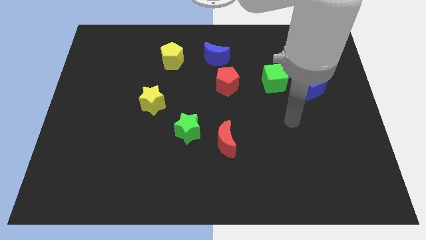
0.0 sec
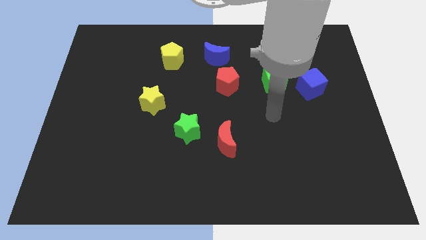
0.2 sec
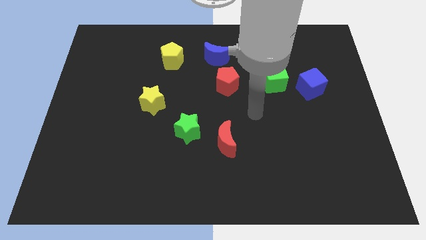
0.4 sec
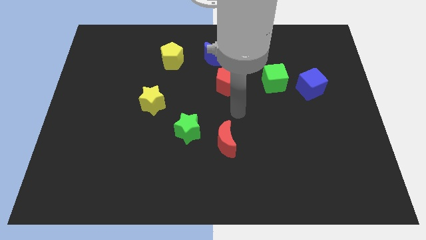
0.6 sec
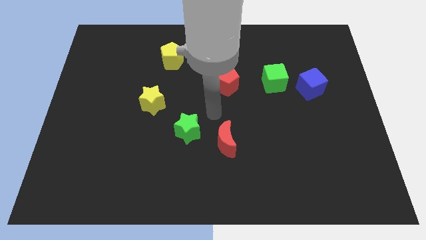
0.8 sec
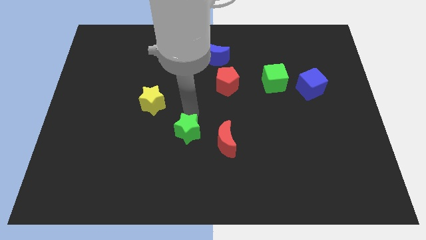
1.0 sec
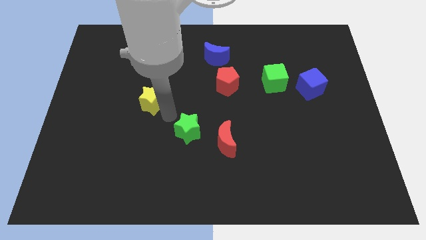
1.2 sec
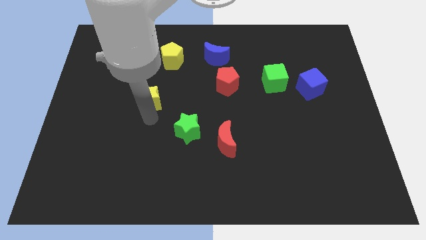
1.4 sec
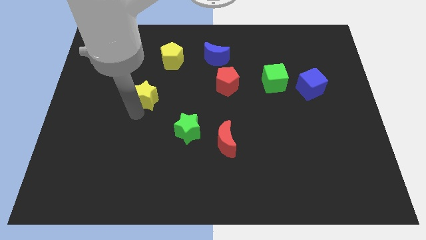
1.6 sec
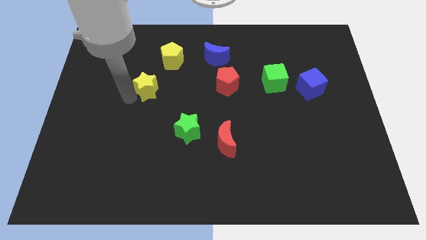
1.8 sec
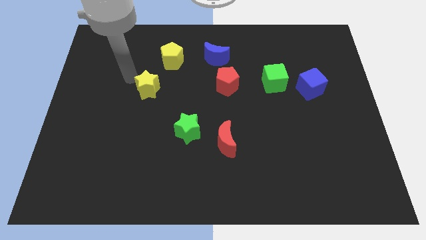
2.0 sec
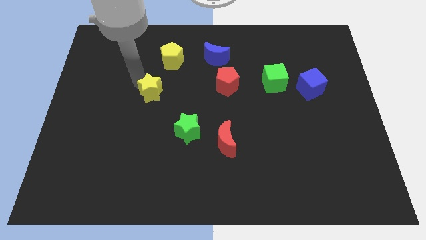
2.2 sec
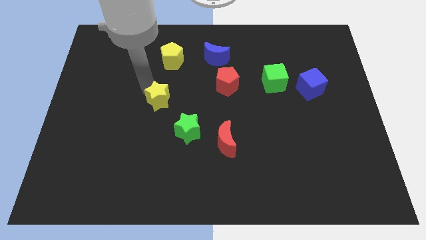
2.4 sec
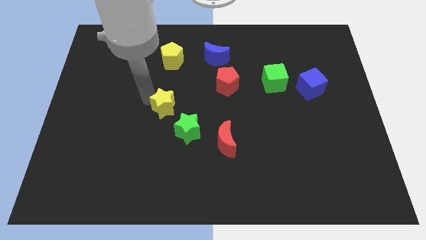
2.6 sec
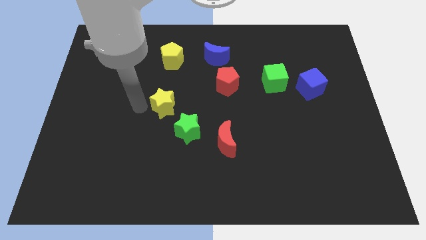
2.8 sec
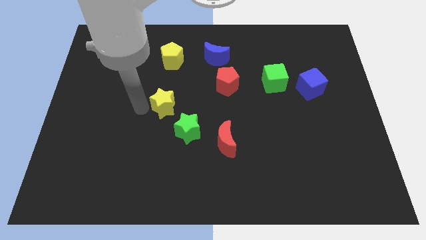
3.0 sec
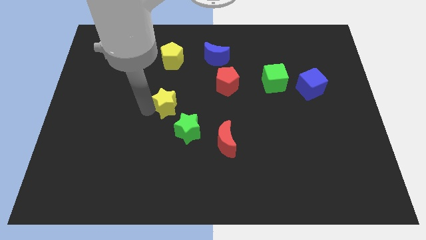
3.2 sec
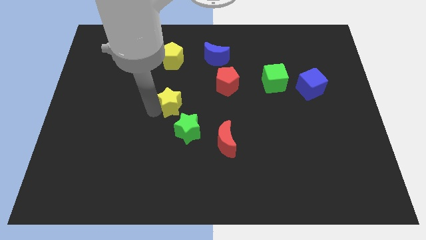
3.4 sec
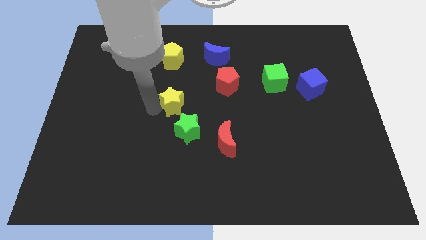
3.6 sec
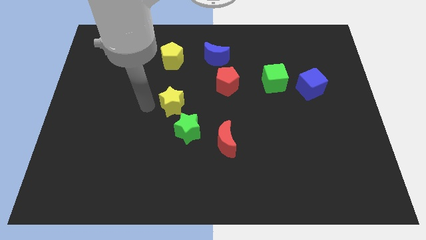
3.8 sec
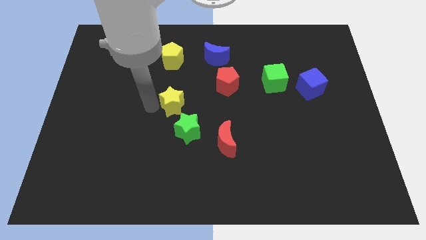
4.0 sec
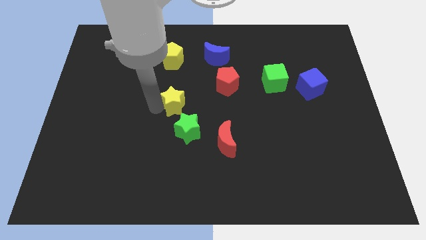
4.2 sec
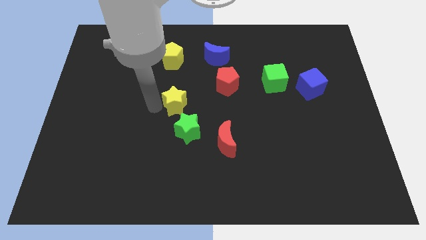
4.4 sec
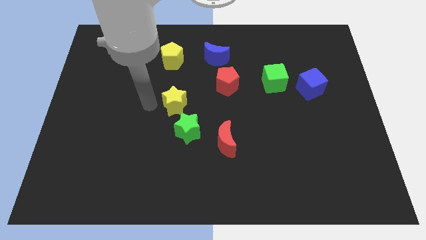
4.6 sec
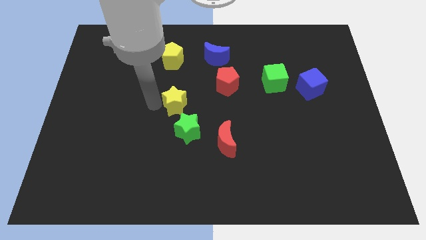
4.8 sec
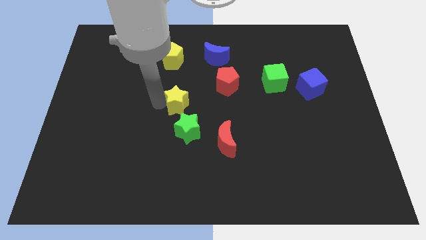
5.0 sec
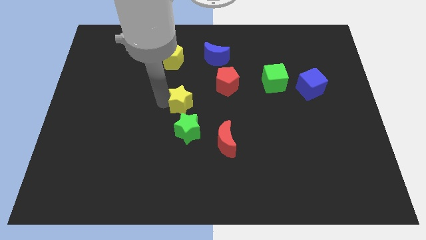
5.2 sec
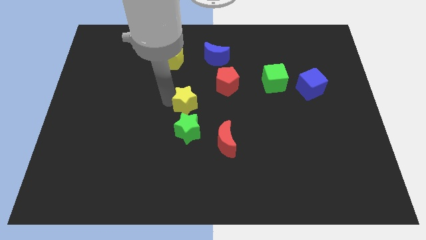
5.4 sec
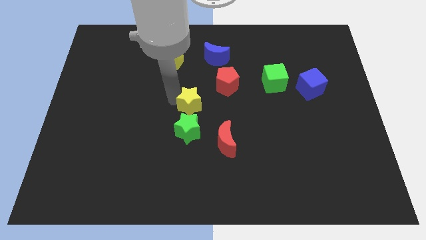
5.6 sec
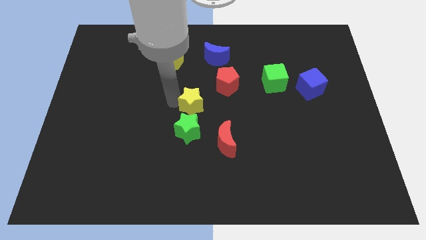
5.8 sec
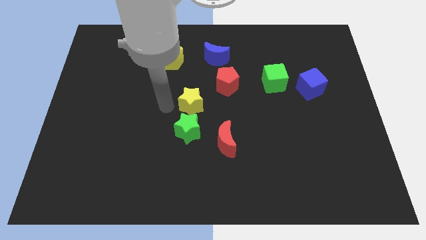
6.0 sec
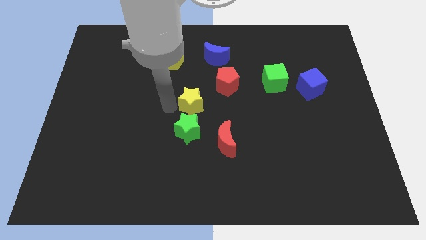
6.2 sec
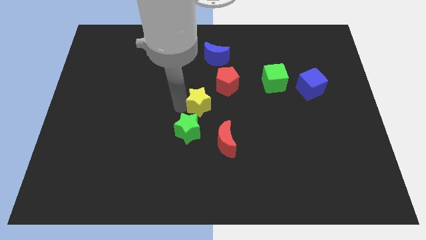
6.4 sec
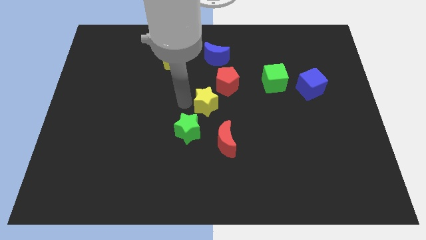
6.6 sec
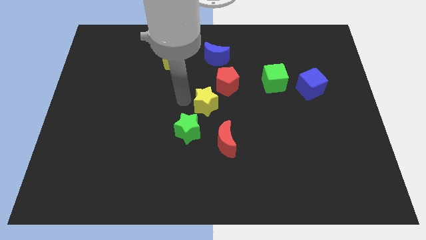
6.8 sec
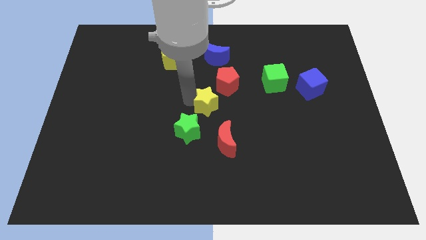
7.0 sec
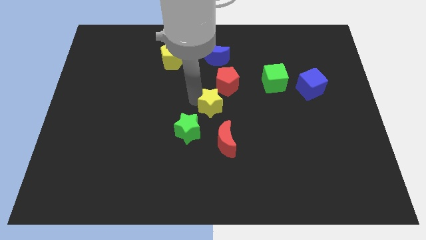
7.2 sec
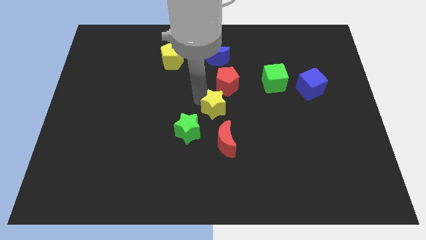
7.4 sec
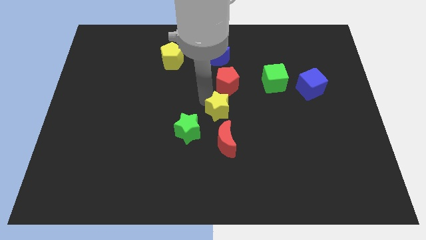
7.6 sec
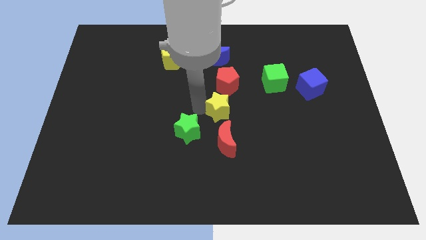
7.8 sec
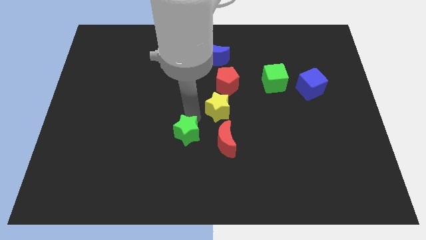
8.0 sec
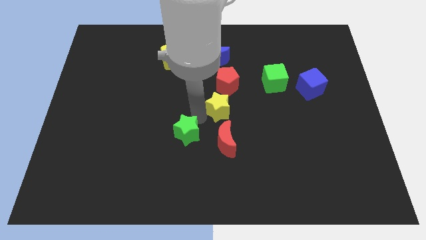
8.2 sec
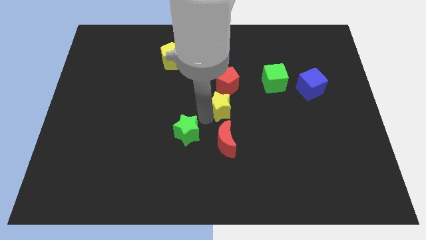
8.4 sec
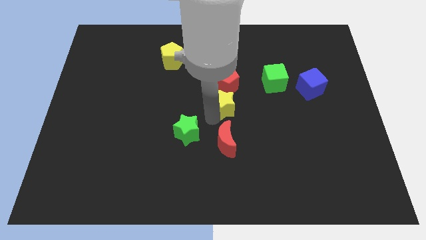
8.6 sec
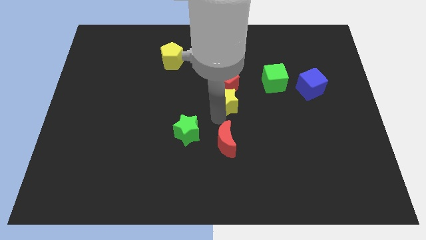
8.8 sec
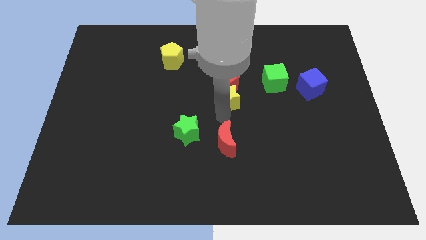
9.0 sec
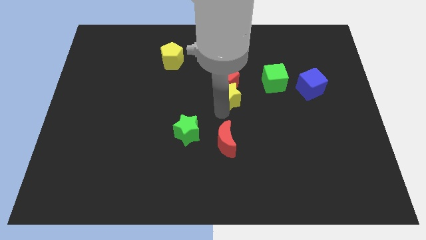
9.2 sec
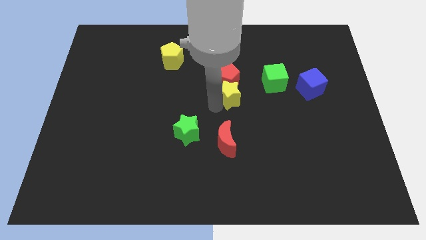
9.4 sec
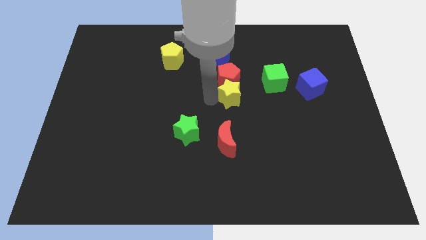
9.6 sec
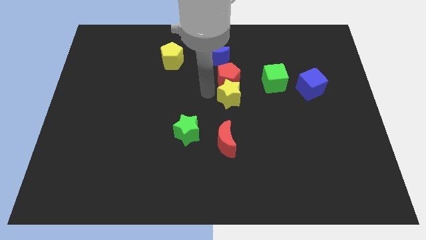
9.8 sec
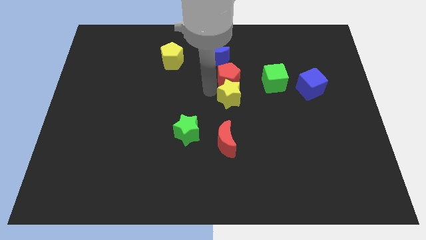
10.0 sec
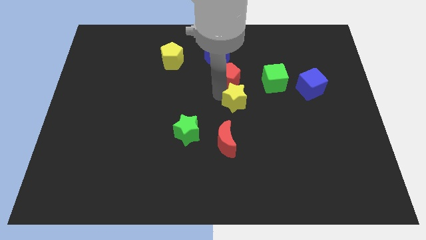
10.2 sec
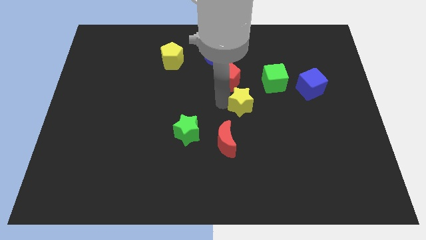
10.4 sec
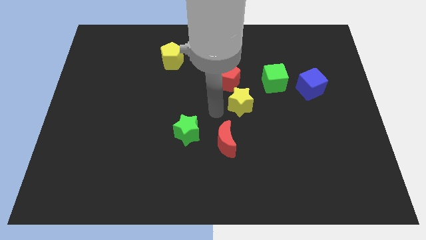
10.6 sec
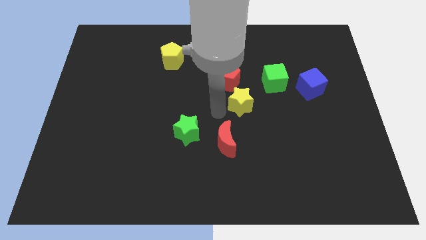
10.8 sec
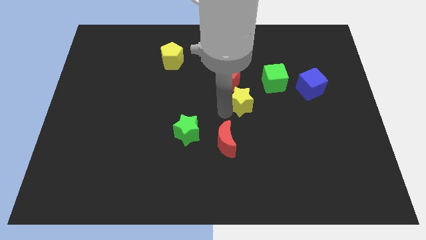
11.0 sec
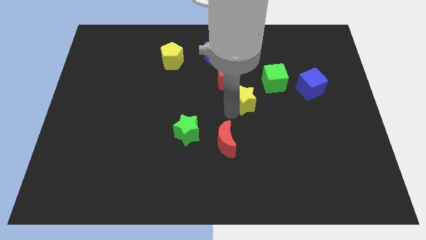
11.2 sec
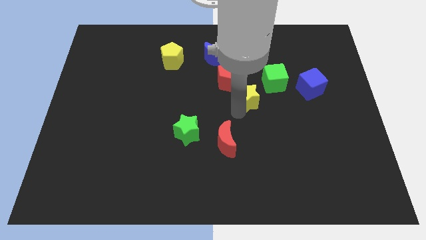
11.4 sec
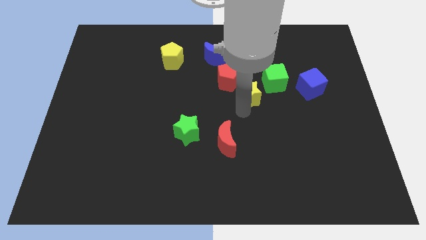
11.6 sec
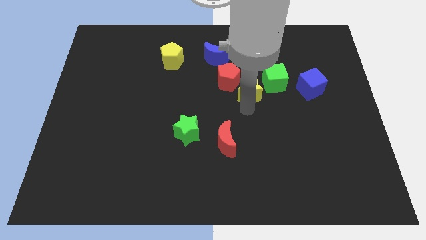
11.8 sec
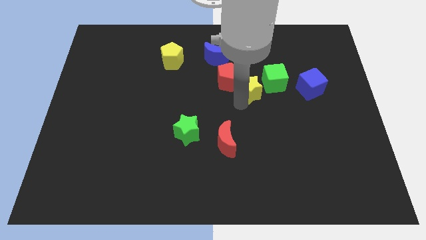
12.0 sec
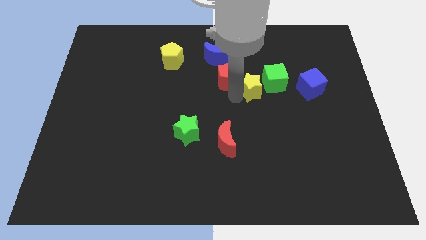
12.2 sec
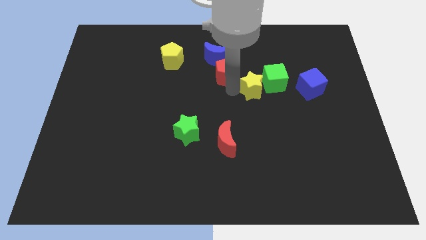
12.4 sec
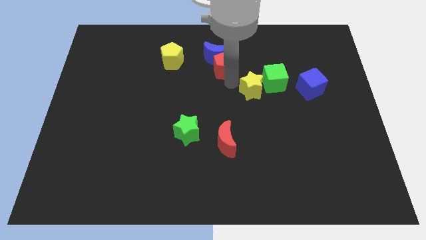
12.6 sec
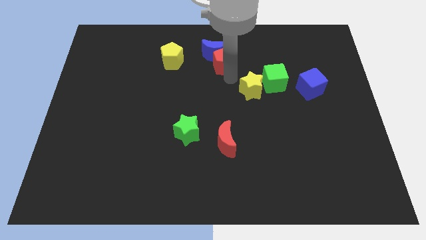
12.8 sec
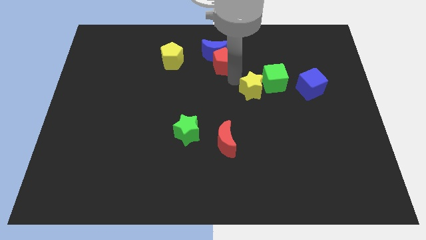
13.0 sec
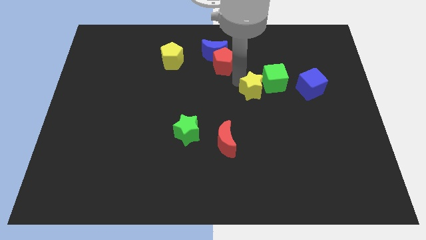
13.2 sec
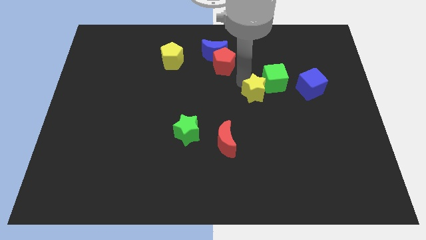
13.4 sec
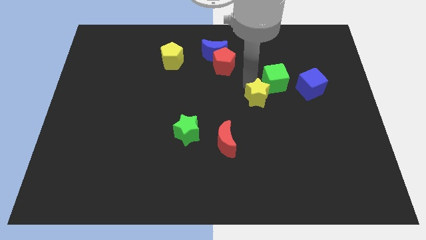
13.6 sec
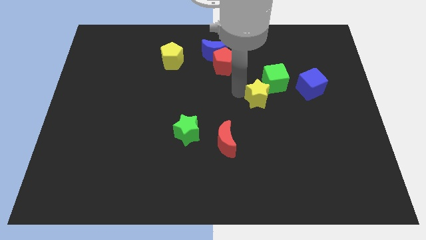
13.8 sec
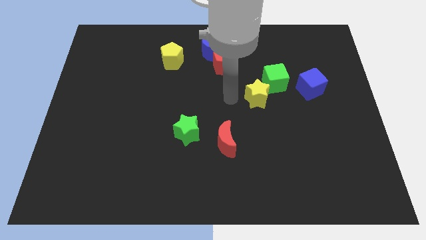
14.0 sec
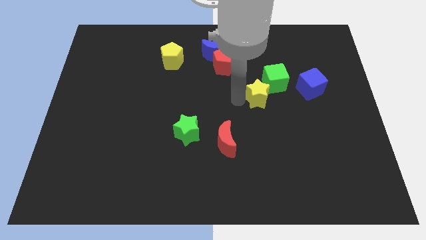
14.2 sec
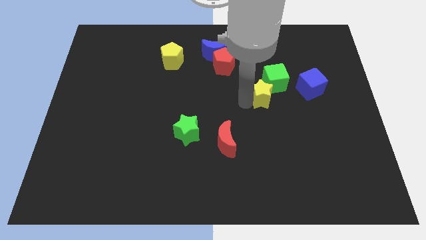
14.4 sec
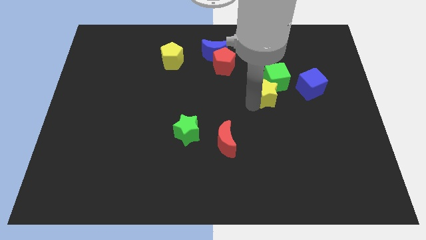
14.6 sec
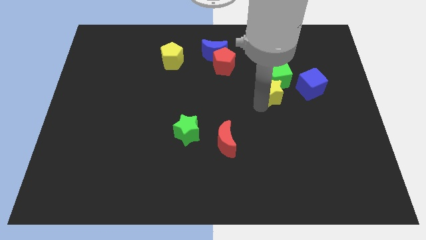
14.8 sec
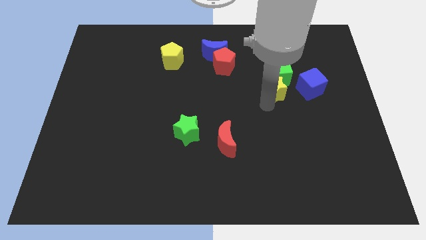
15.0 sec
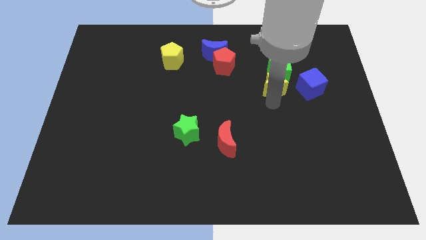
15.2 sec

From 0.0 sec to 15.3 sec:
slide the yellow star to the bottom right of the green cube

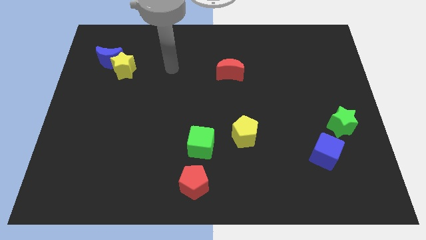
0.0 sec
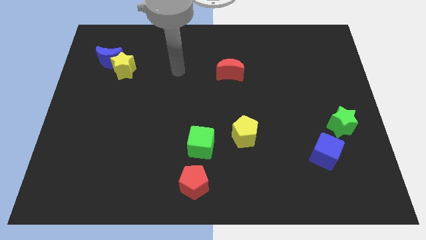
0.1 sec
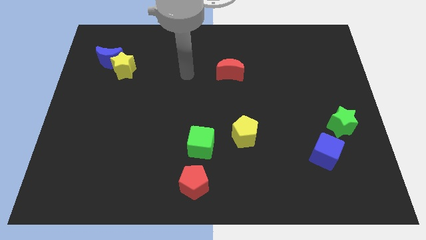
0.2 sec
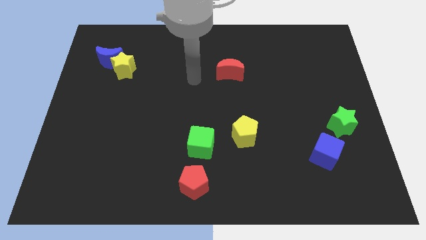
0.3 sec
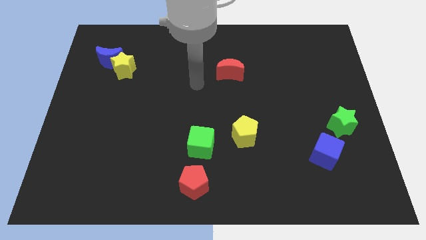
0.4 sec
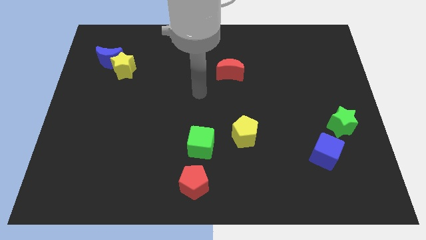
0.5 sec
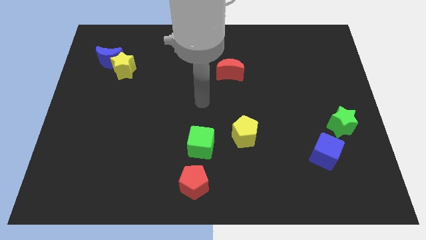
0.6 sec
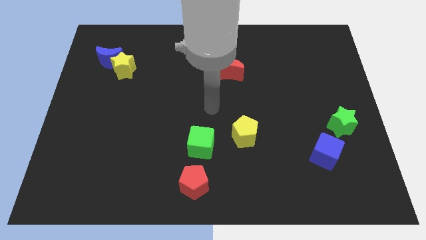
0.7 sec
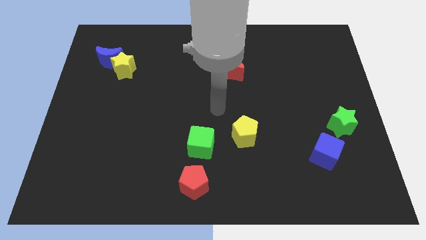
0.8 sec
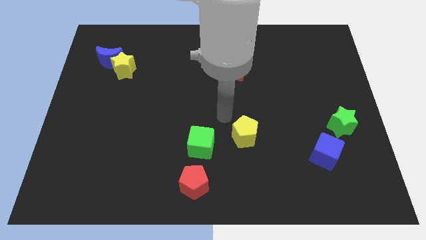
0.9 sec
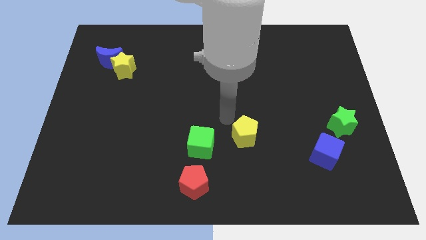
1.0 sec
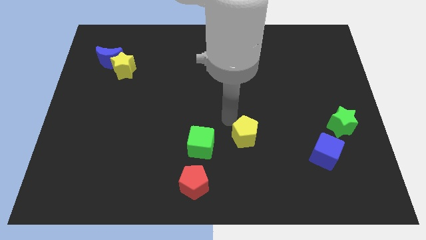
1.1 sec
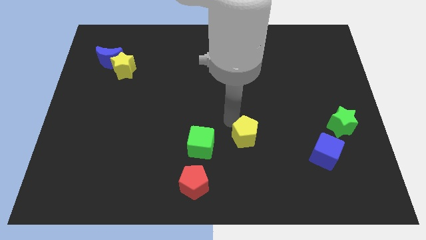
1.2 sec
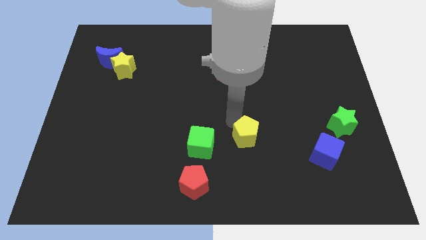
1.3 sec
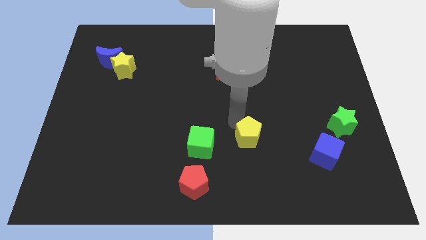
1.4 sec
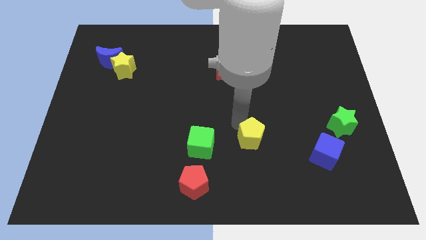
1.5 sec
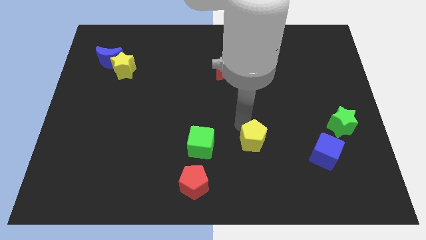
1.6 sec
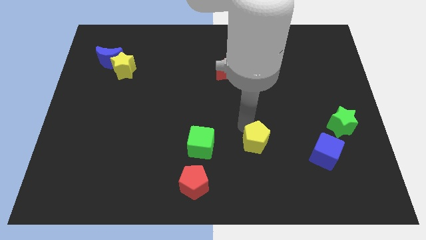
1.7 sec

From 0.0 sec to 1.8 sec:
push the yellow pentagon to the left side of the blue cube
